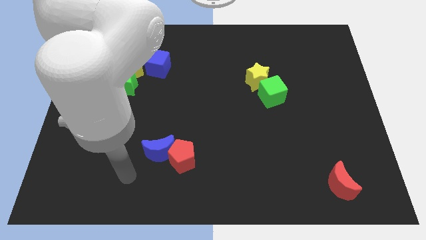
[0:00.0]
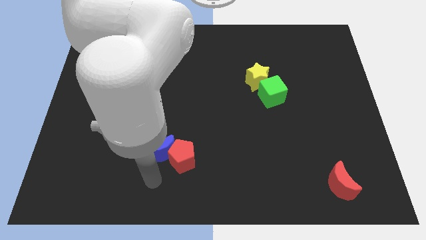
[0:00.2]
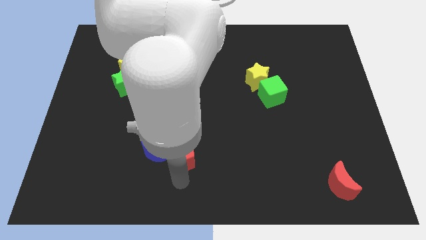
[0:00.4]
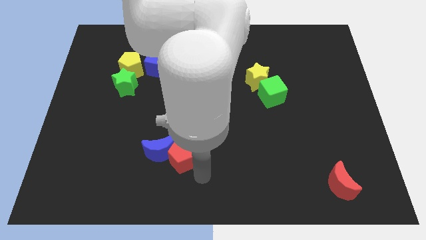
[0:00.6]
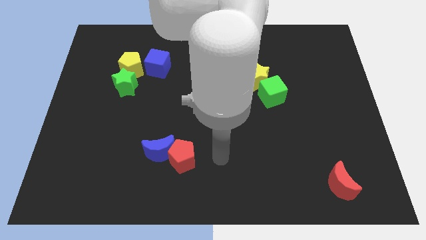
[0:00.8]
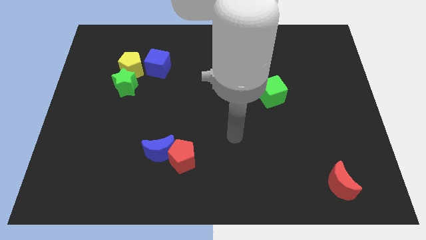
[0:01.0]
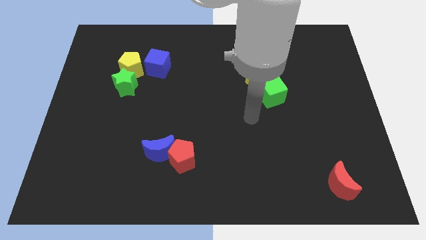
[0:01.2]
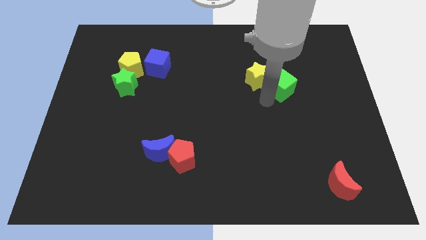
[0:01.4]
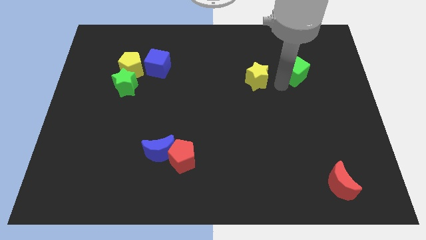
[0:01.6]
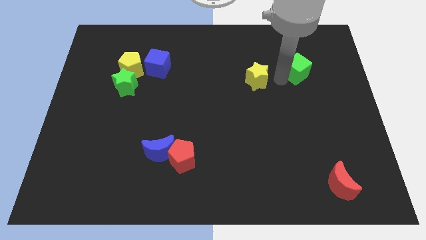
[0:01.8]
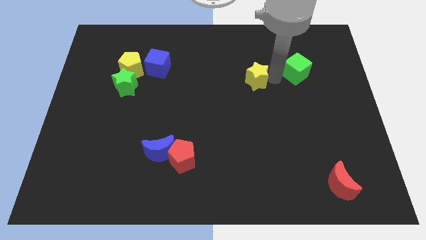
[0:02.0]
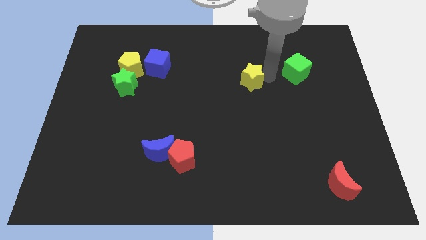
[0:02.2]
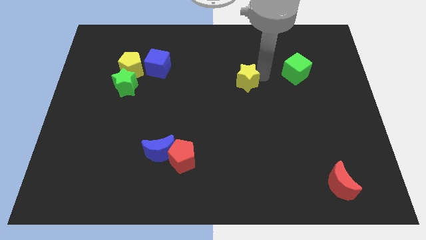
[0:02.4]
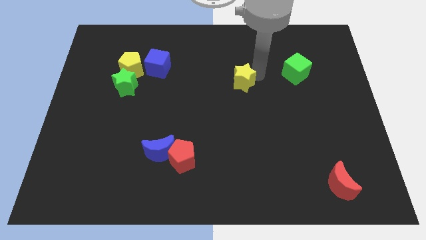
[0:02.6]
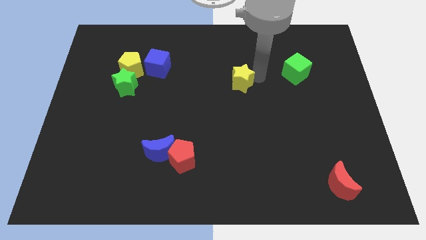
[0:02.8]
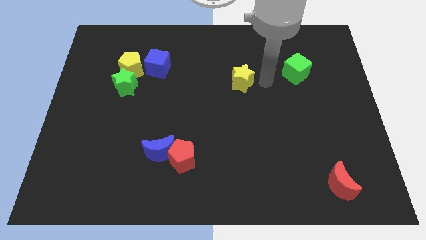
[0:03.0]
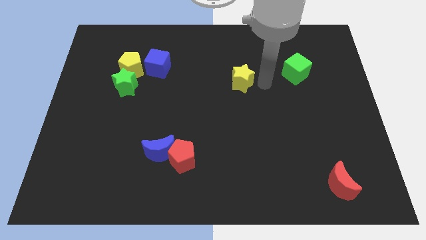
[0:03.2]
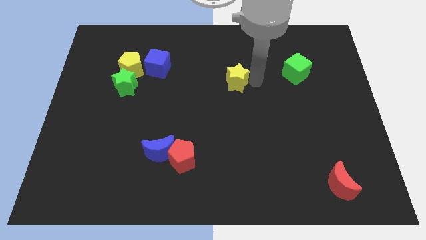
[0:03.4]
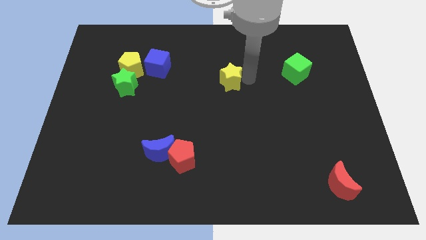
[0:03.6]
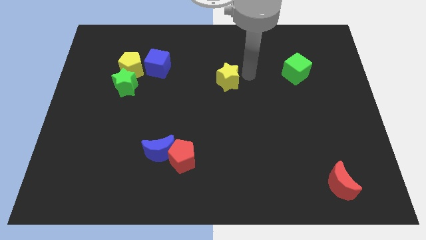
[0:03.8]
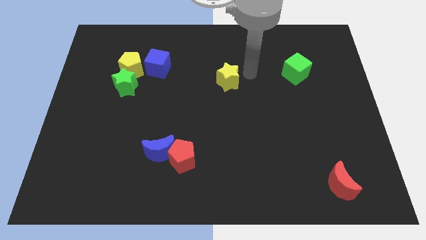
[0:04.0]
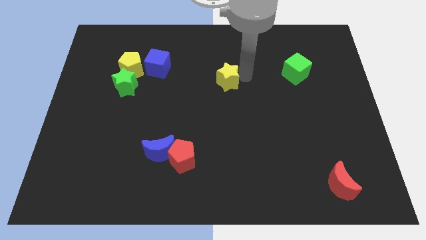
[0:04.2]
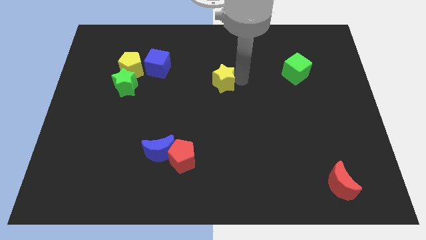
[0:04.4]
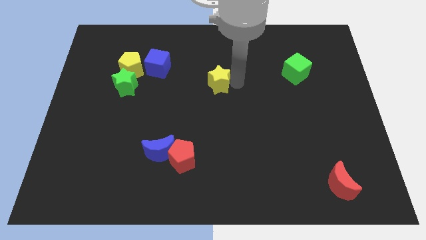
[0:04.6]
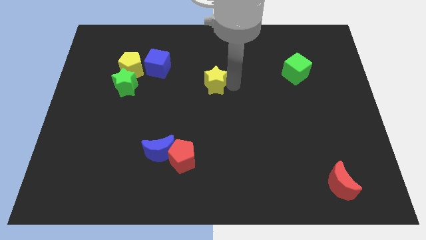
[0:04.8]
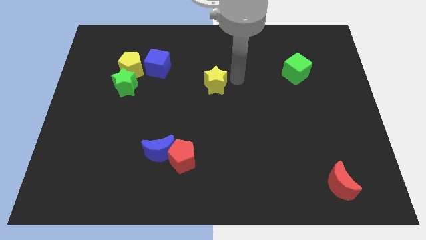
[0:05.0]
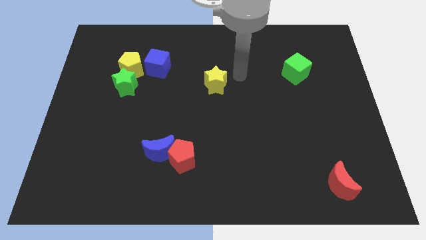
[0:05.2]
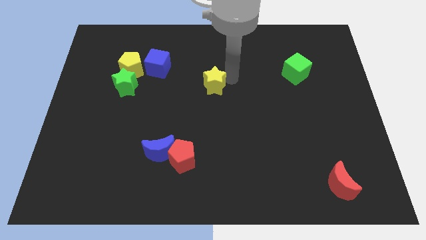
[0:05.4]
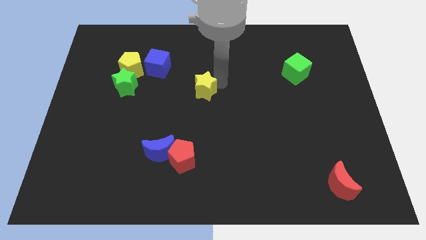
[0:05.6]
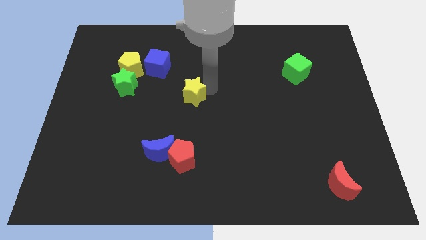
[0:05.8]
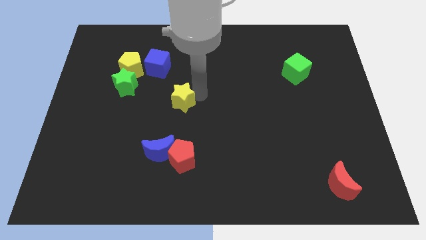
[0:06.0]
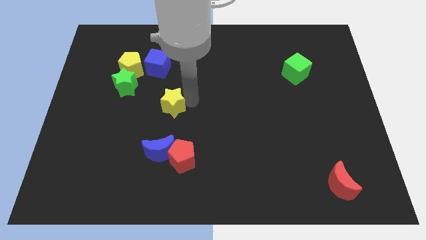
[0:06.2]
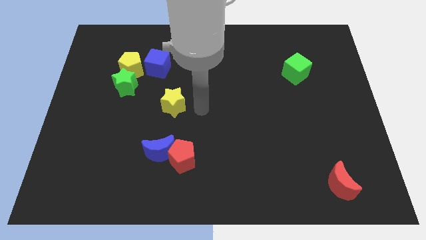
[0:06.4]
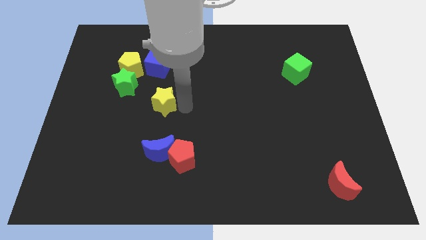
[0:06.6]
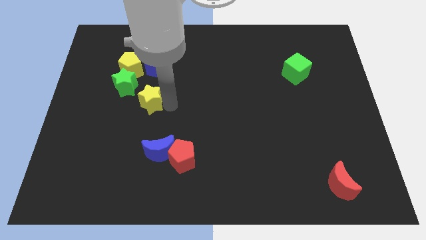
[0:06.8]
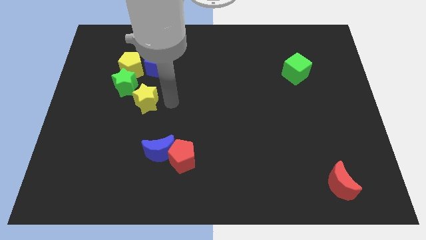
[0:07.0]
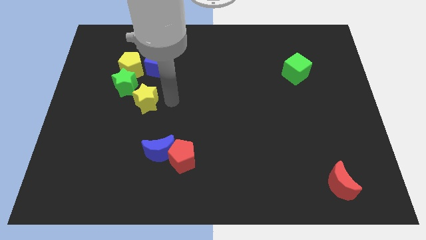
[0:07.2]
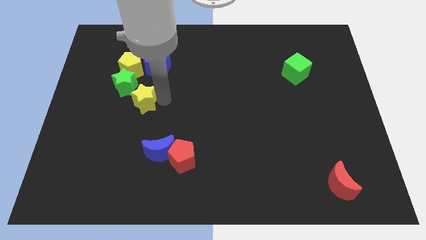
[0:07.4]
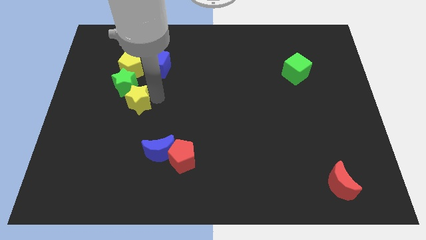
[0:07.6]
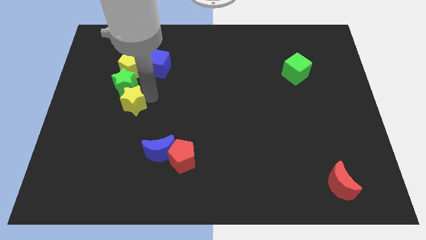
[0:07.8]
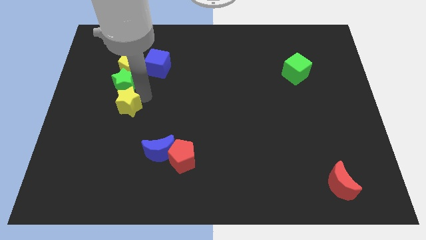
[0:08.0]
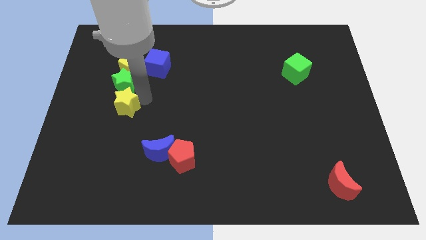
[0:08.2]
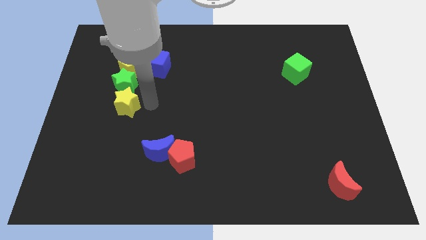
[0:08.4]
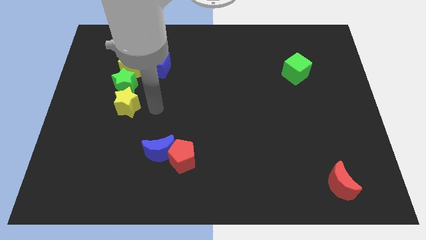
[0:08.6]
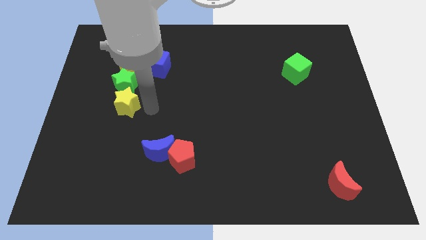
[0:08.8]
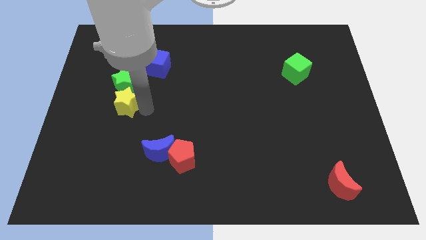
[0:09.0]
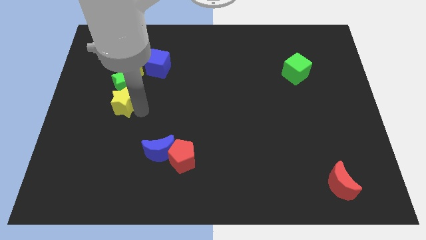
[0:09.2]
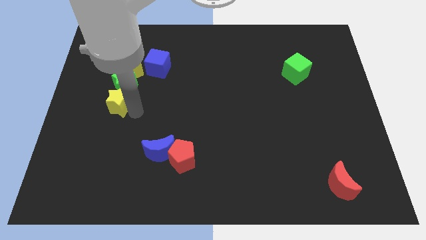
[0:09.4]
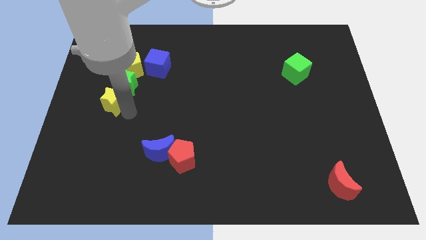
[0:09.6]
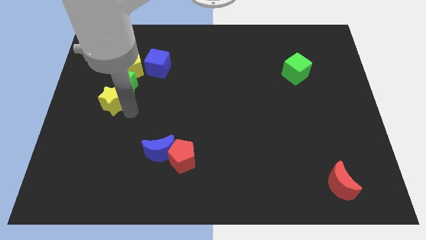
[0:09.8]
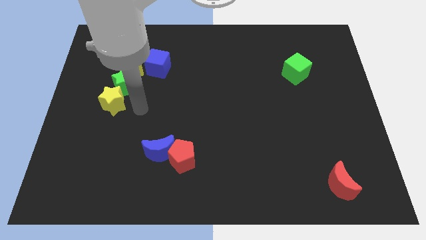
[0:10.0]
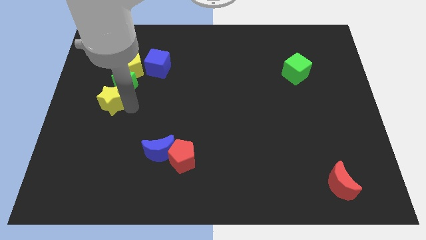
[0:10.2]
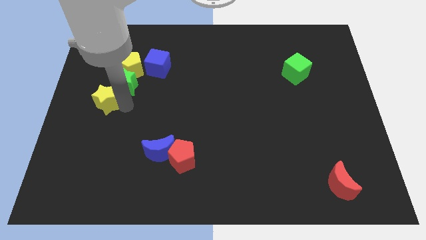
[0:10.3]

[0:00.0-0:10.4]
push the yellow star to the left side

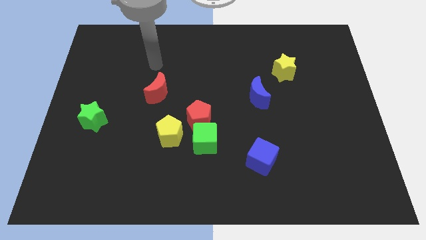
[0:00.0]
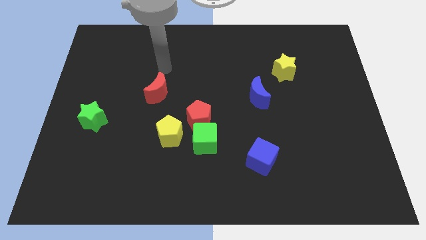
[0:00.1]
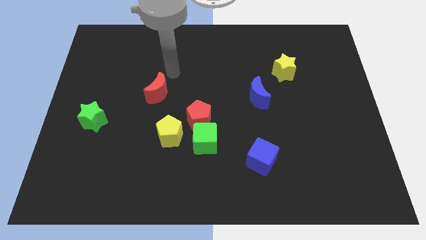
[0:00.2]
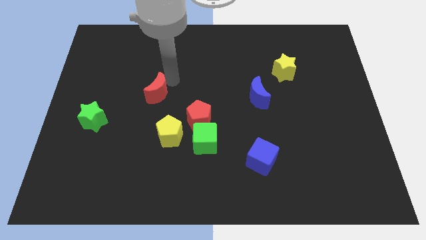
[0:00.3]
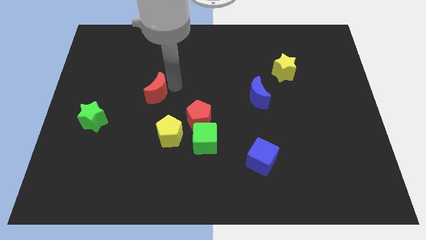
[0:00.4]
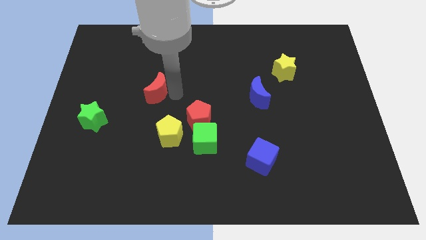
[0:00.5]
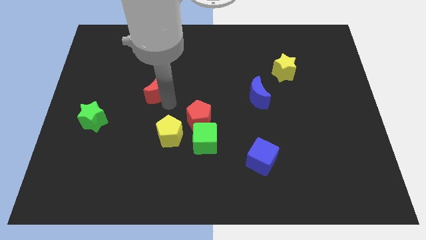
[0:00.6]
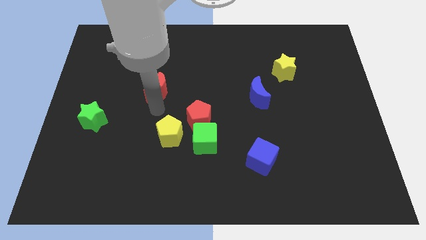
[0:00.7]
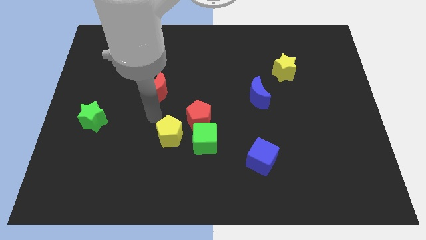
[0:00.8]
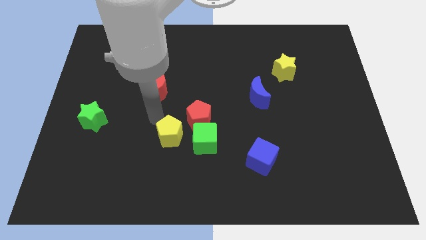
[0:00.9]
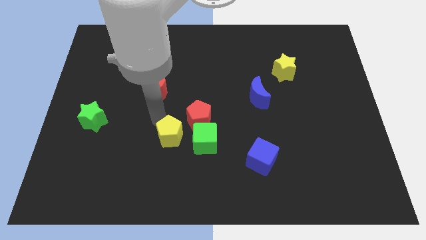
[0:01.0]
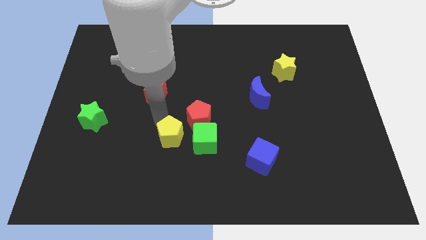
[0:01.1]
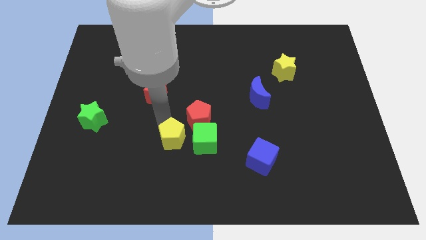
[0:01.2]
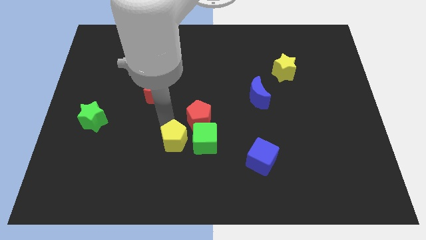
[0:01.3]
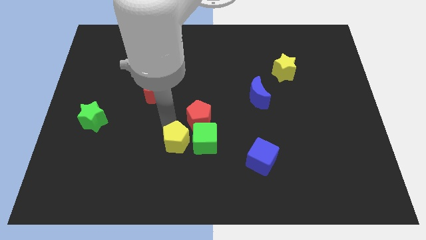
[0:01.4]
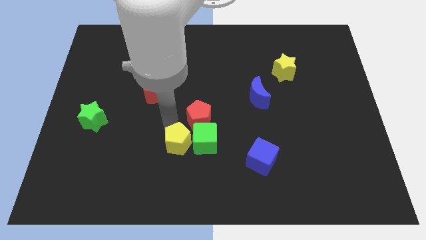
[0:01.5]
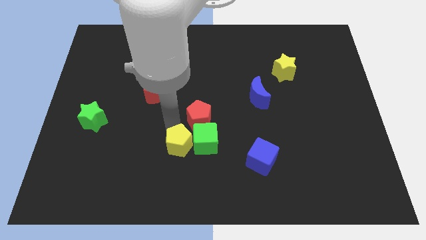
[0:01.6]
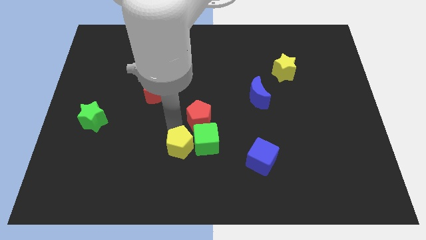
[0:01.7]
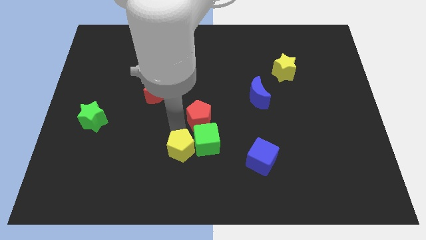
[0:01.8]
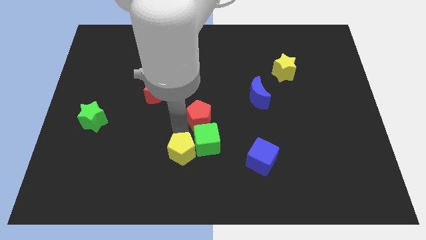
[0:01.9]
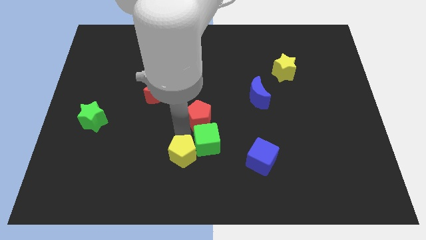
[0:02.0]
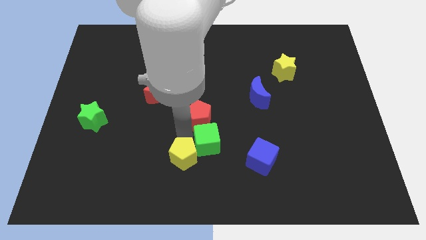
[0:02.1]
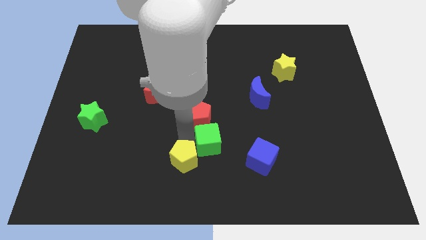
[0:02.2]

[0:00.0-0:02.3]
slide the yellow pentagon to the bottom
